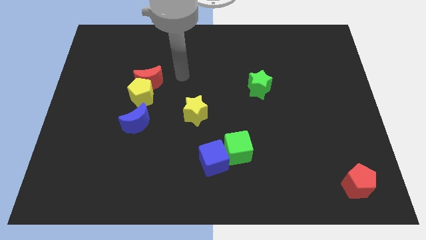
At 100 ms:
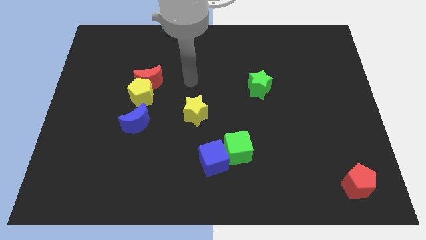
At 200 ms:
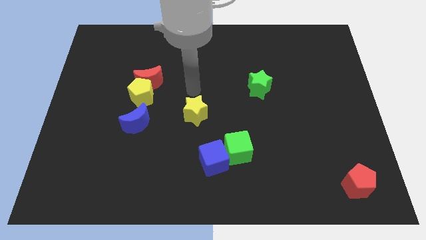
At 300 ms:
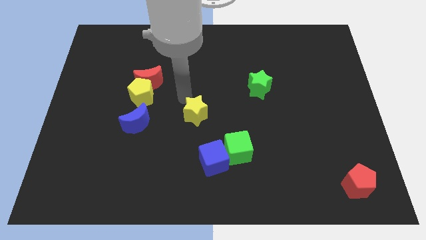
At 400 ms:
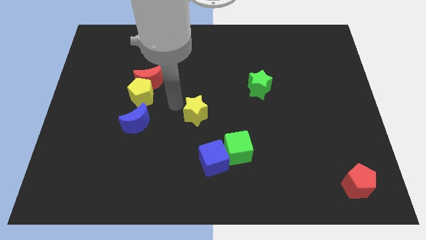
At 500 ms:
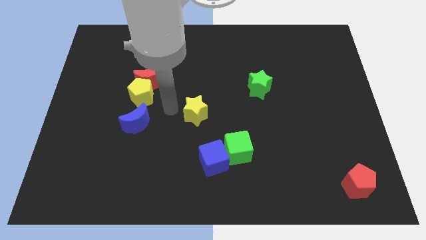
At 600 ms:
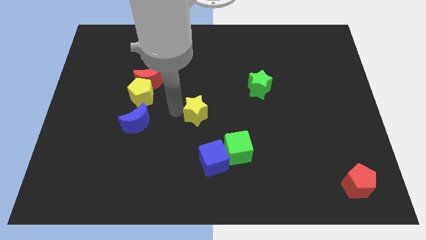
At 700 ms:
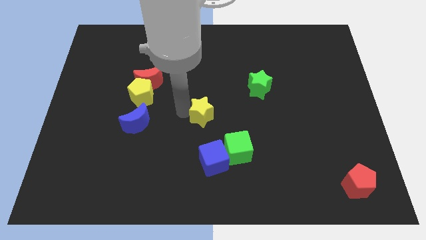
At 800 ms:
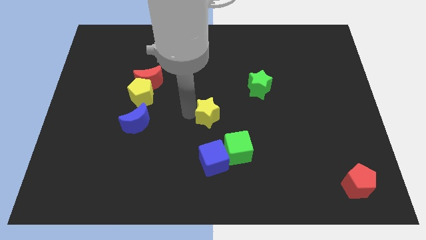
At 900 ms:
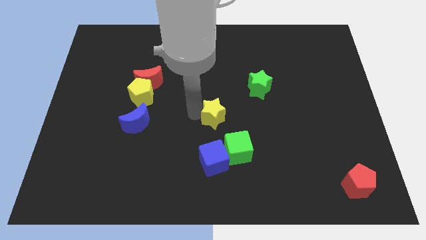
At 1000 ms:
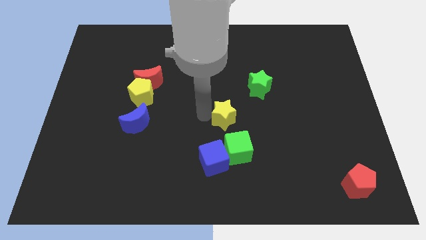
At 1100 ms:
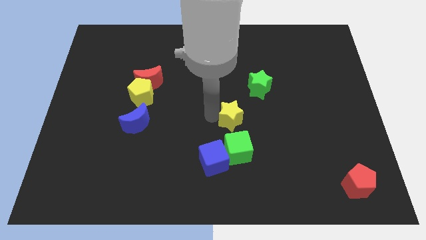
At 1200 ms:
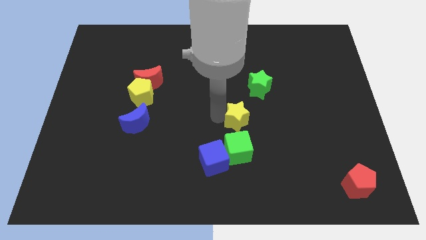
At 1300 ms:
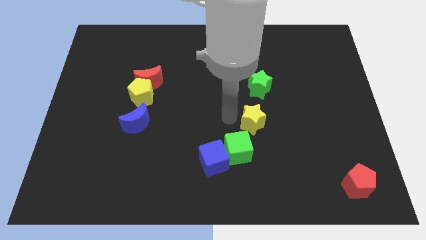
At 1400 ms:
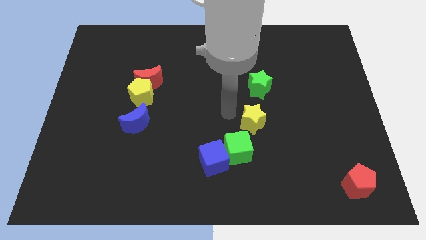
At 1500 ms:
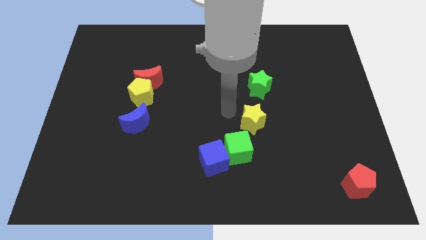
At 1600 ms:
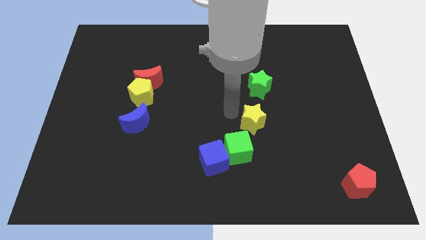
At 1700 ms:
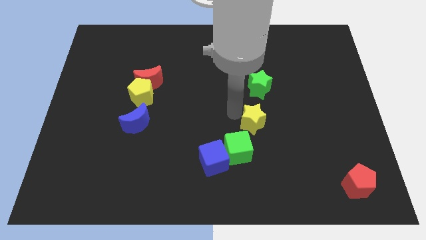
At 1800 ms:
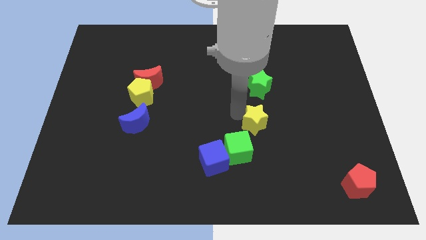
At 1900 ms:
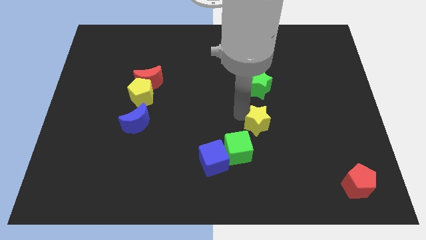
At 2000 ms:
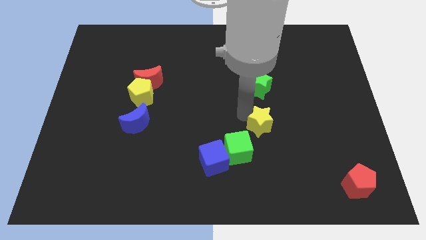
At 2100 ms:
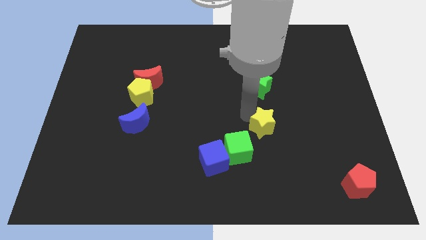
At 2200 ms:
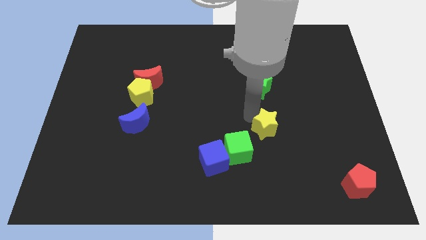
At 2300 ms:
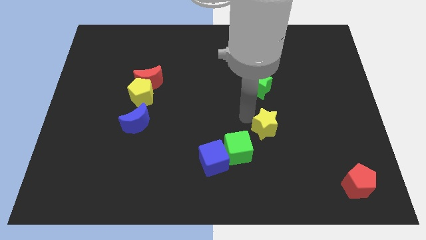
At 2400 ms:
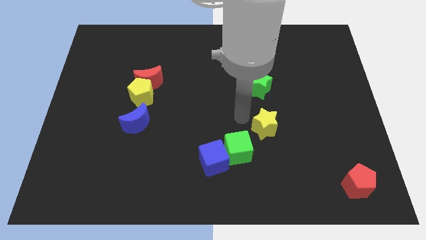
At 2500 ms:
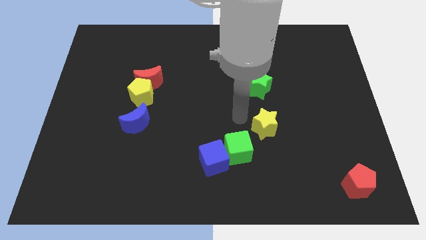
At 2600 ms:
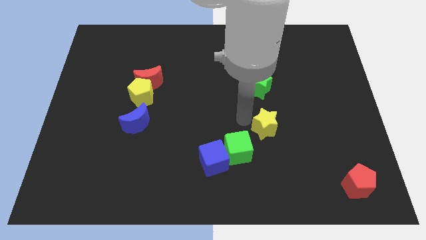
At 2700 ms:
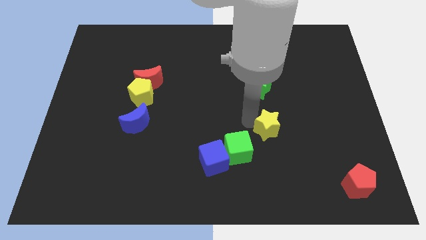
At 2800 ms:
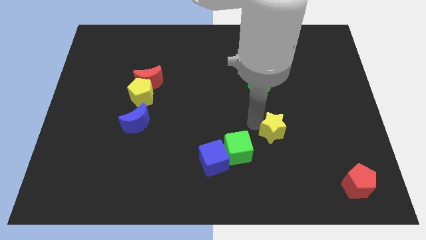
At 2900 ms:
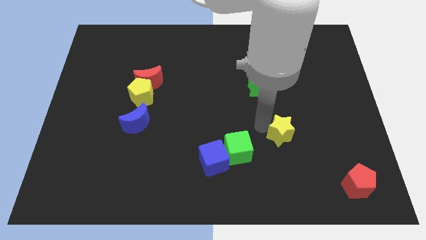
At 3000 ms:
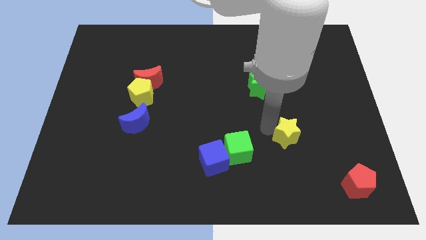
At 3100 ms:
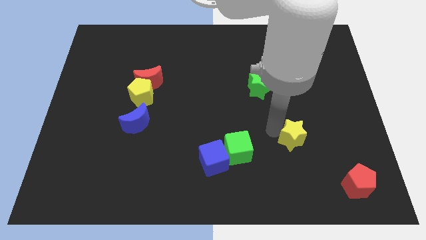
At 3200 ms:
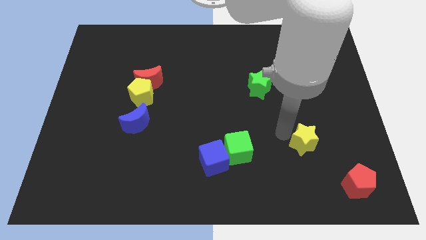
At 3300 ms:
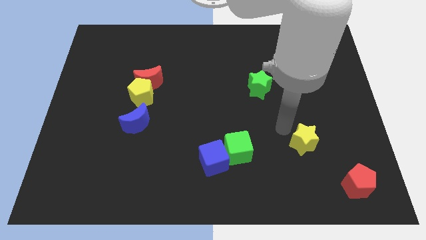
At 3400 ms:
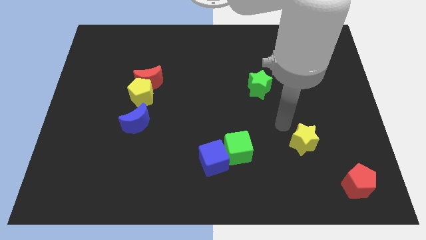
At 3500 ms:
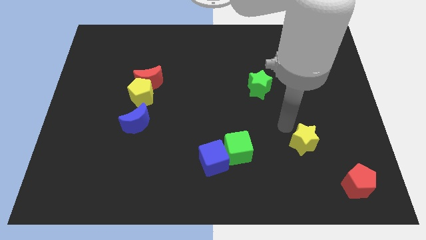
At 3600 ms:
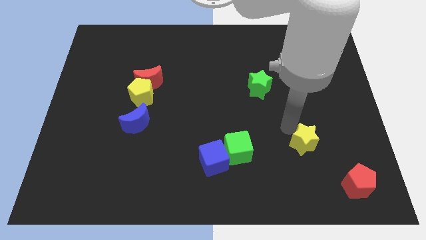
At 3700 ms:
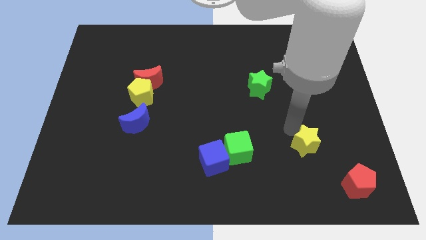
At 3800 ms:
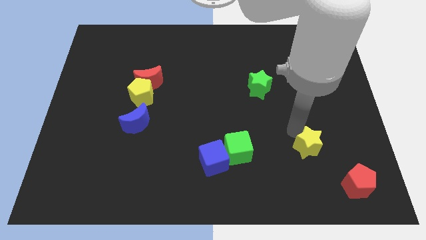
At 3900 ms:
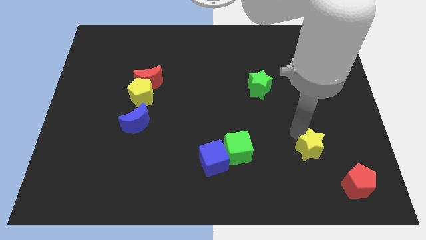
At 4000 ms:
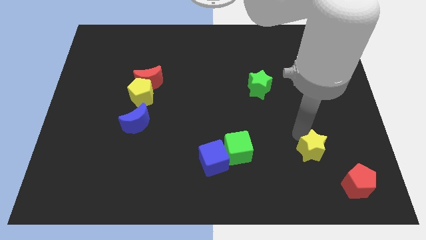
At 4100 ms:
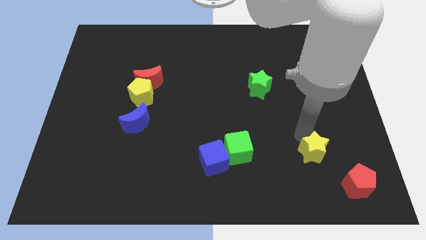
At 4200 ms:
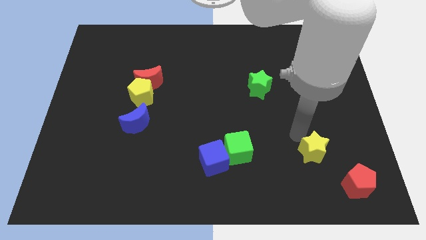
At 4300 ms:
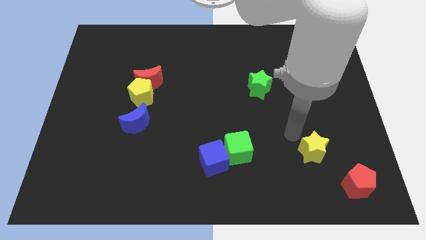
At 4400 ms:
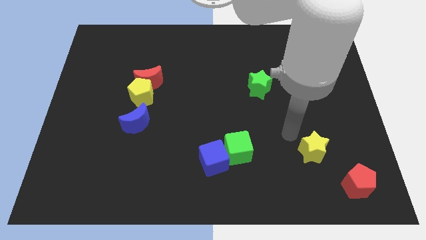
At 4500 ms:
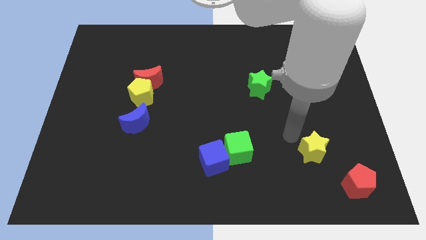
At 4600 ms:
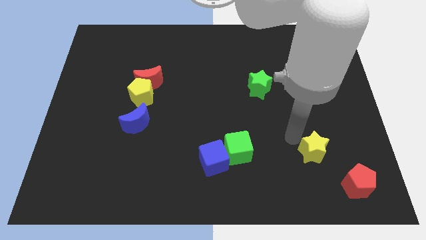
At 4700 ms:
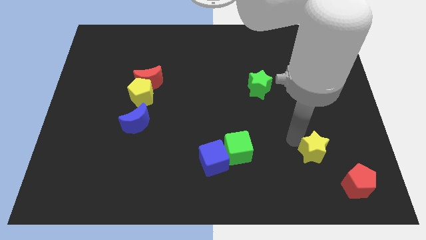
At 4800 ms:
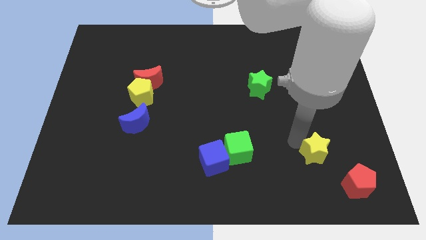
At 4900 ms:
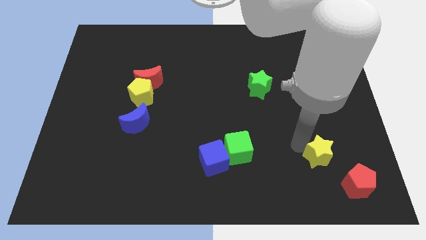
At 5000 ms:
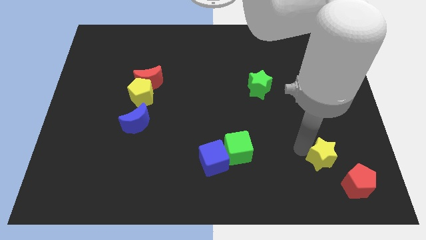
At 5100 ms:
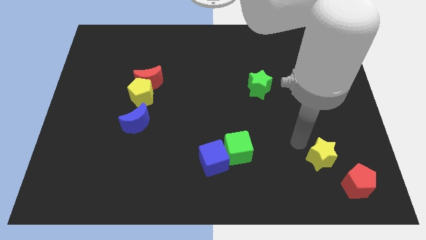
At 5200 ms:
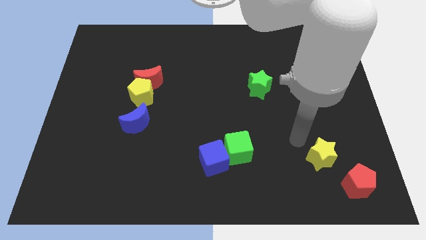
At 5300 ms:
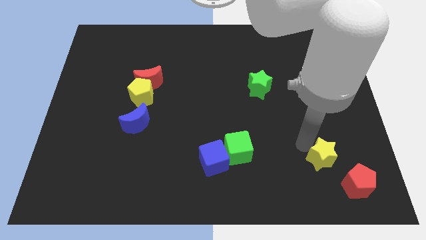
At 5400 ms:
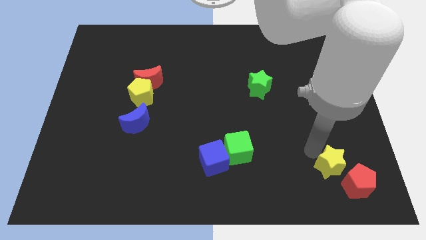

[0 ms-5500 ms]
put the yellow star next to the red pentagon

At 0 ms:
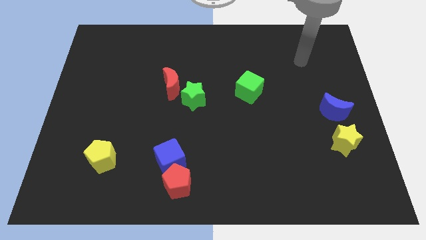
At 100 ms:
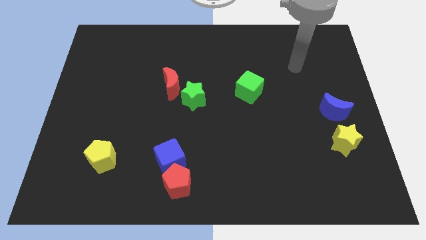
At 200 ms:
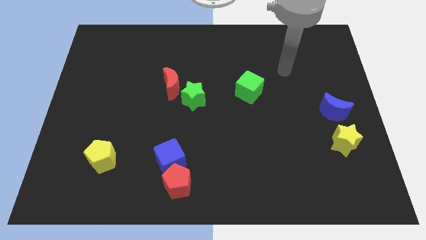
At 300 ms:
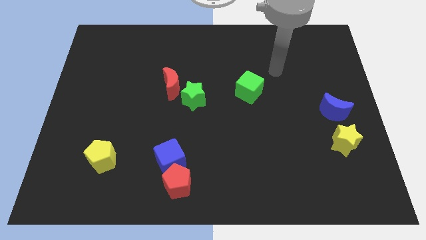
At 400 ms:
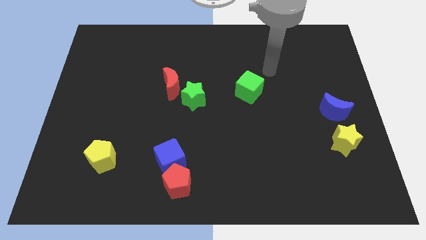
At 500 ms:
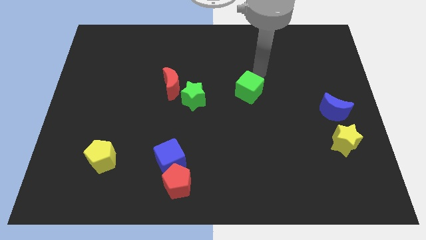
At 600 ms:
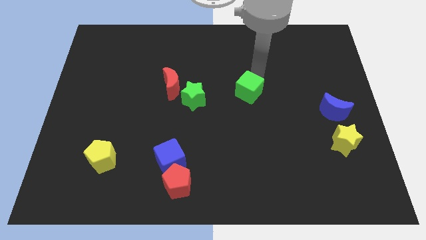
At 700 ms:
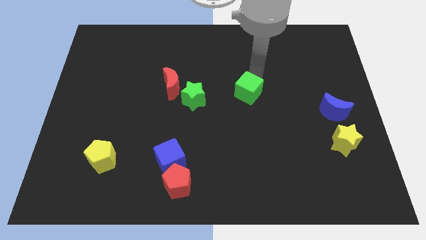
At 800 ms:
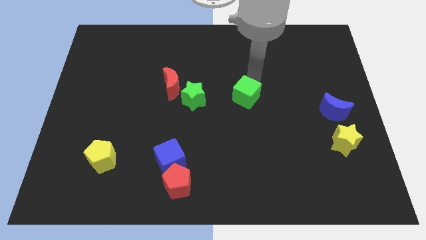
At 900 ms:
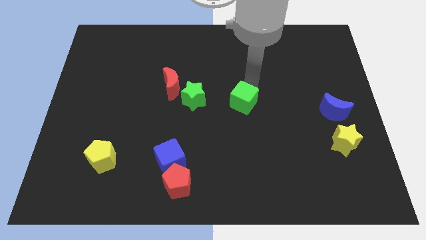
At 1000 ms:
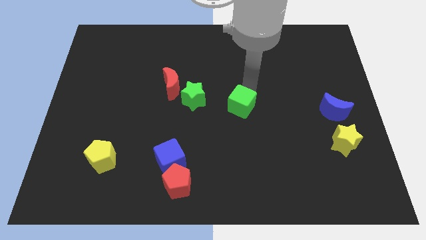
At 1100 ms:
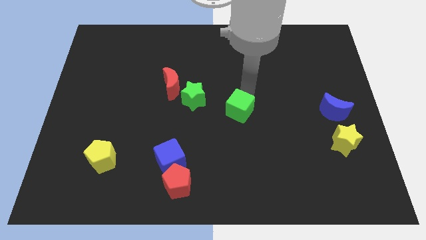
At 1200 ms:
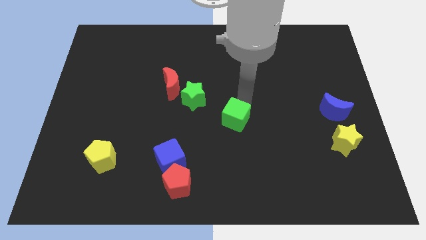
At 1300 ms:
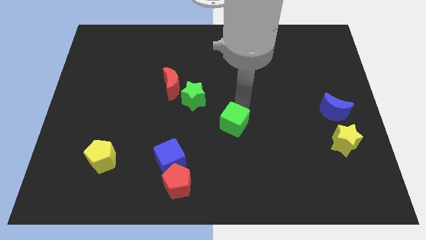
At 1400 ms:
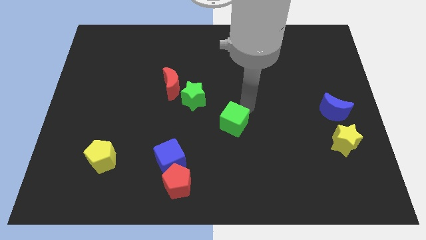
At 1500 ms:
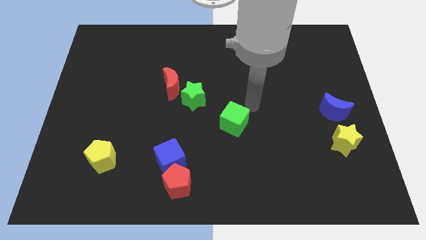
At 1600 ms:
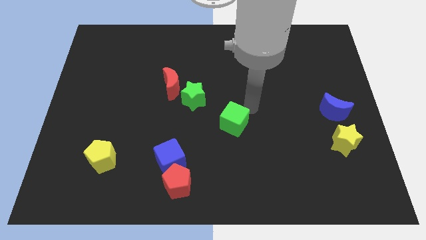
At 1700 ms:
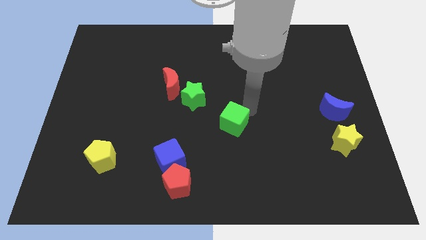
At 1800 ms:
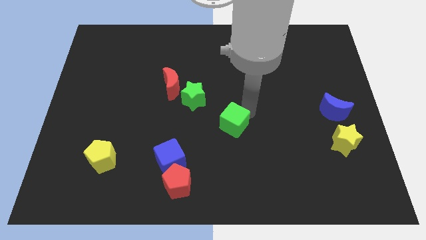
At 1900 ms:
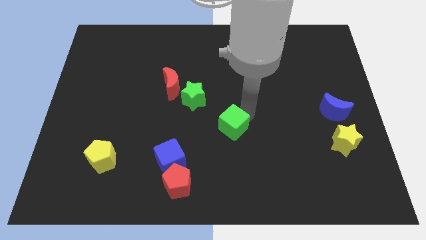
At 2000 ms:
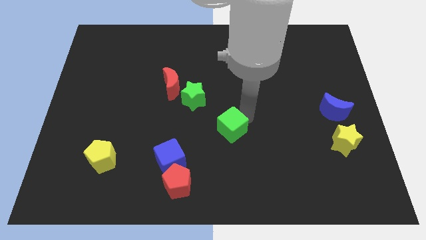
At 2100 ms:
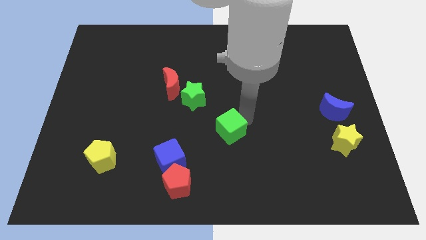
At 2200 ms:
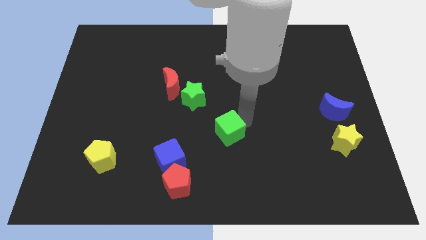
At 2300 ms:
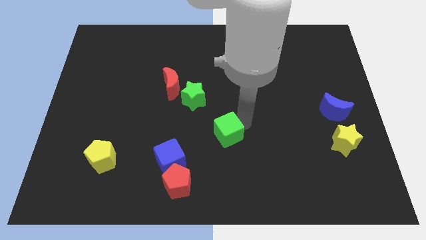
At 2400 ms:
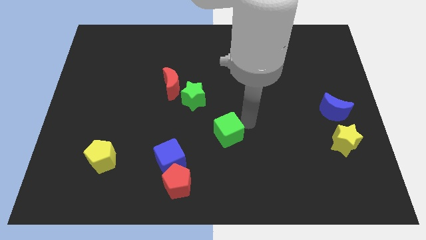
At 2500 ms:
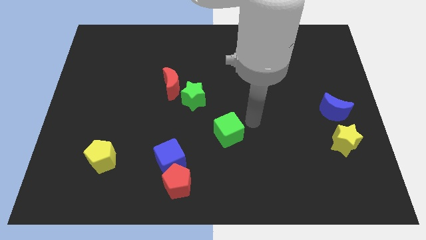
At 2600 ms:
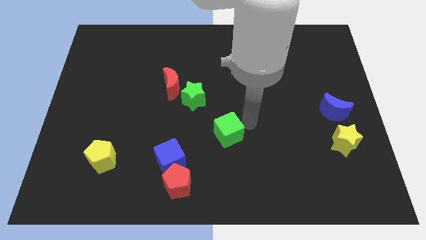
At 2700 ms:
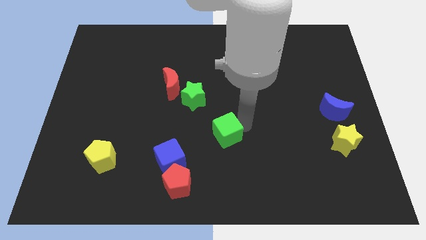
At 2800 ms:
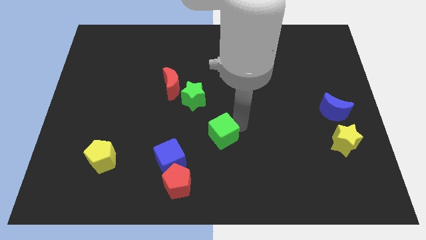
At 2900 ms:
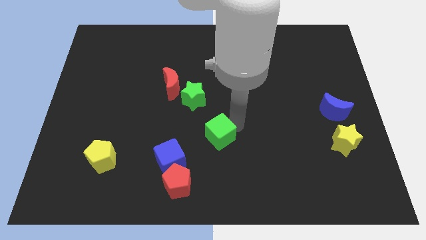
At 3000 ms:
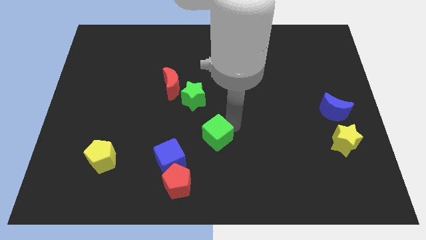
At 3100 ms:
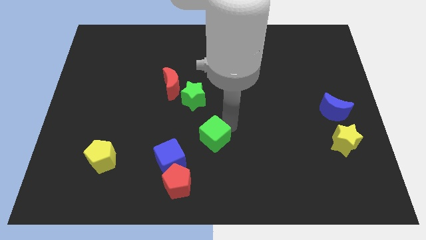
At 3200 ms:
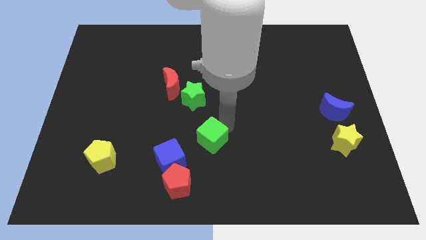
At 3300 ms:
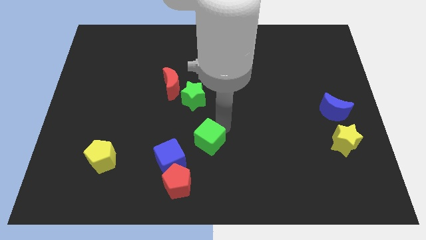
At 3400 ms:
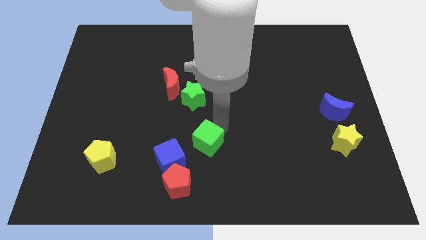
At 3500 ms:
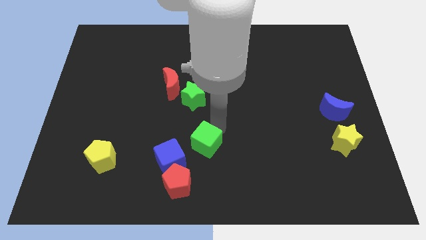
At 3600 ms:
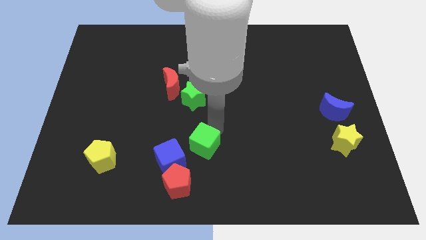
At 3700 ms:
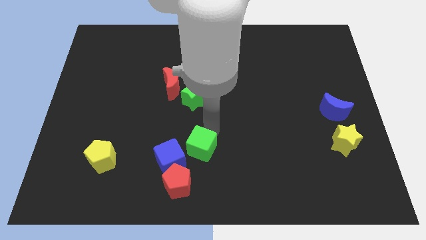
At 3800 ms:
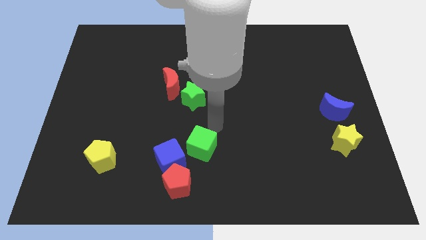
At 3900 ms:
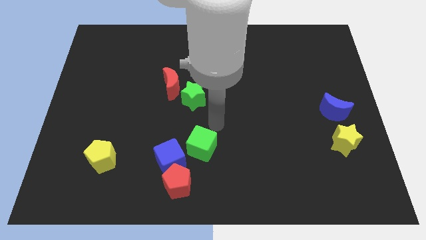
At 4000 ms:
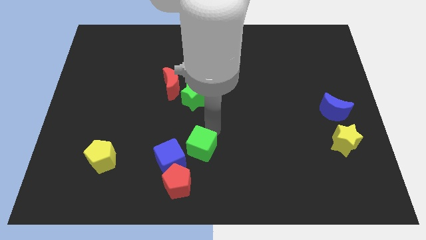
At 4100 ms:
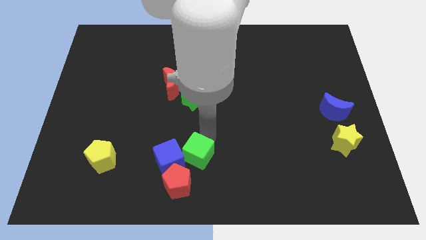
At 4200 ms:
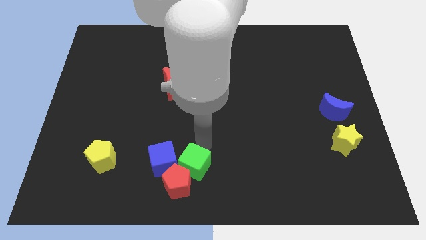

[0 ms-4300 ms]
slide the green cube towards the red pentagon
